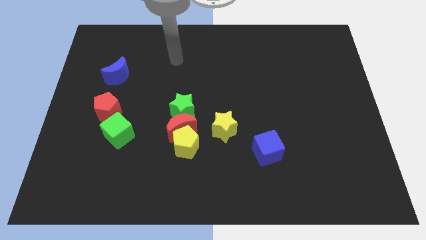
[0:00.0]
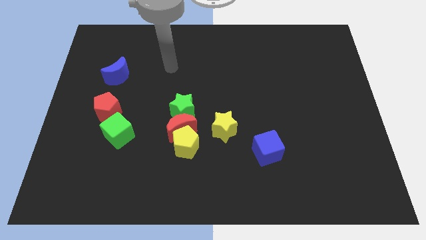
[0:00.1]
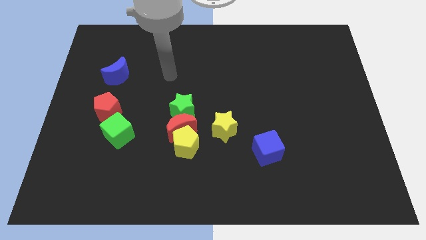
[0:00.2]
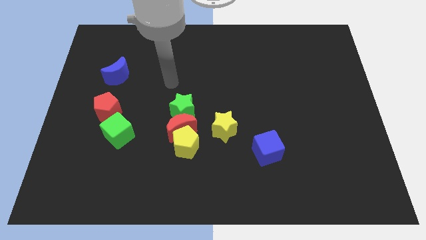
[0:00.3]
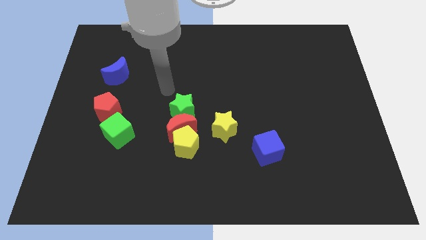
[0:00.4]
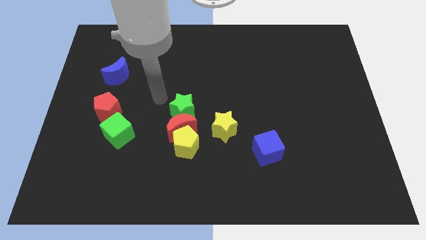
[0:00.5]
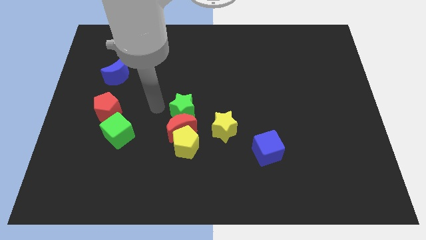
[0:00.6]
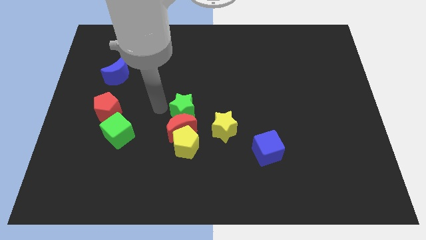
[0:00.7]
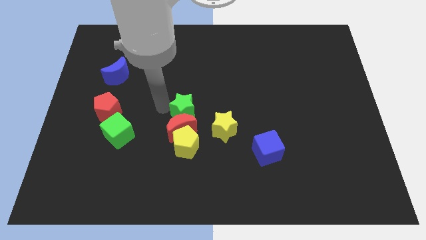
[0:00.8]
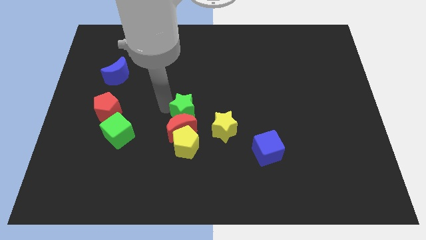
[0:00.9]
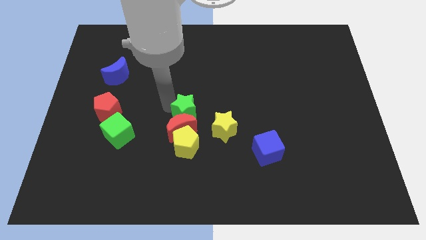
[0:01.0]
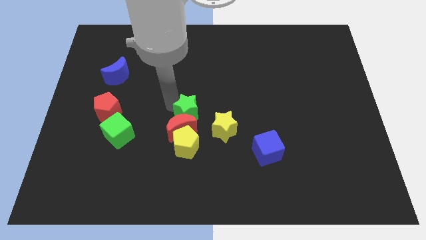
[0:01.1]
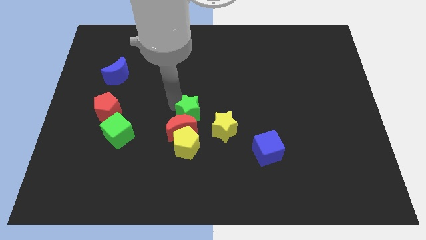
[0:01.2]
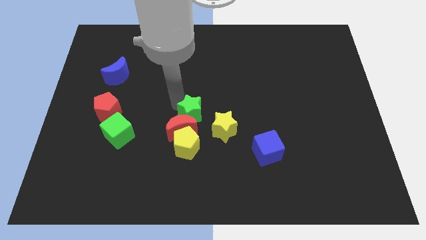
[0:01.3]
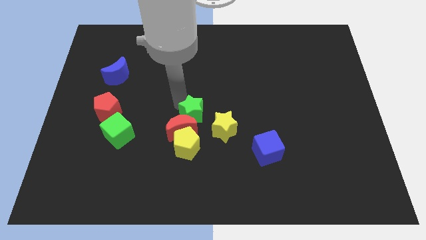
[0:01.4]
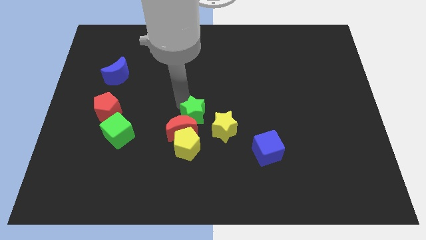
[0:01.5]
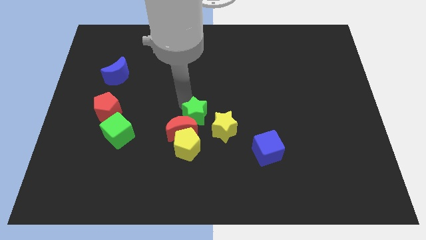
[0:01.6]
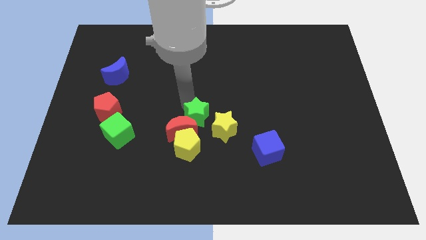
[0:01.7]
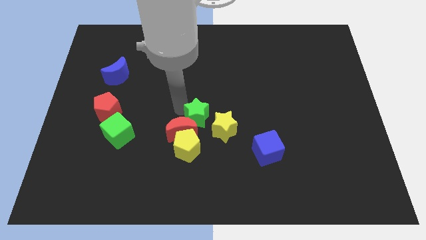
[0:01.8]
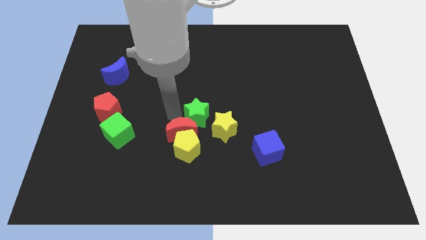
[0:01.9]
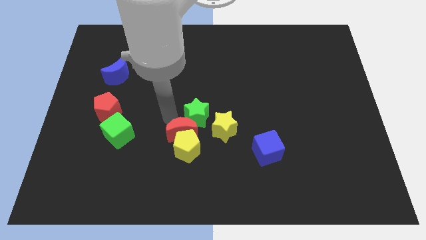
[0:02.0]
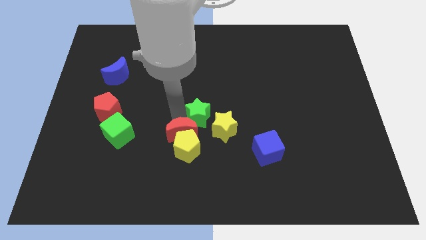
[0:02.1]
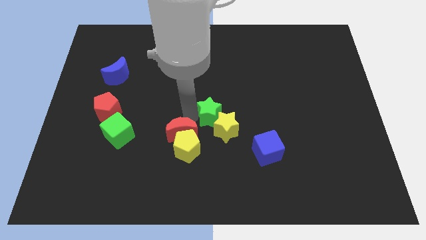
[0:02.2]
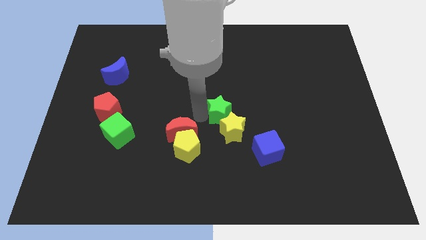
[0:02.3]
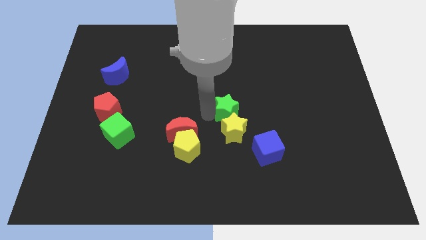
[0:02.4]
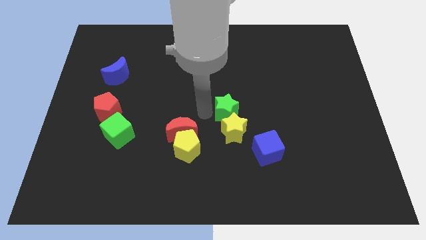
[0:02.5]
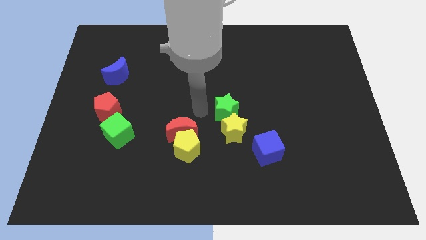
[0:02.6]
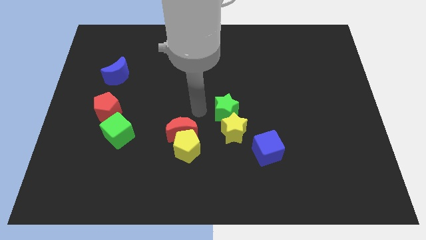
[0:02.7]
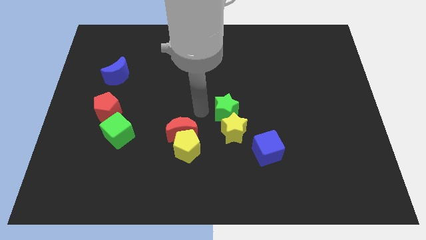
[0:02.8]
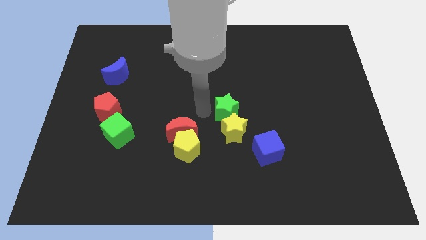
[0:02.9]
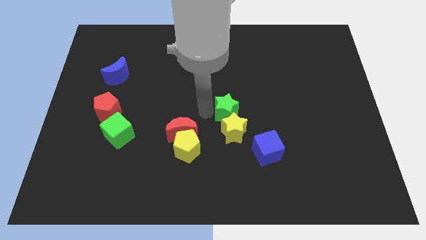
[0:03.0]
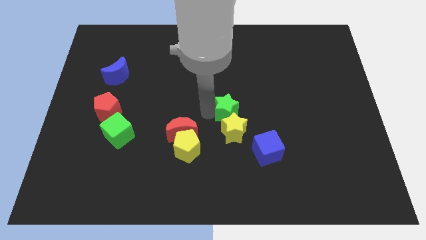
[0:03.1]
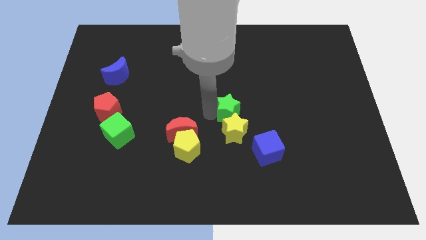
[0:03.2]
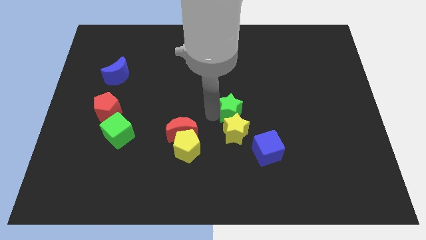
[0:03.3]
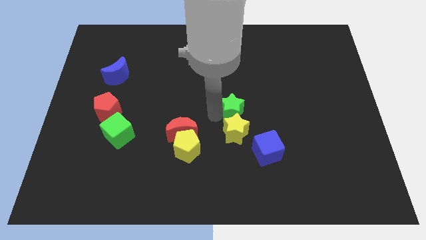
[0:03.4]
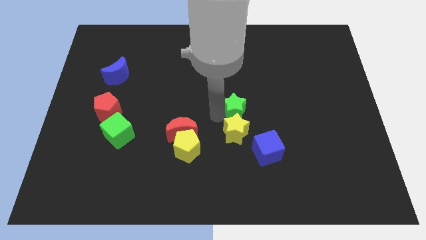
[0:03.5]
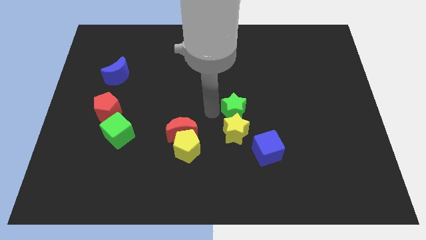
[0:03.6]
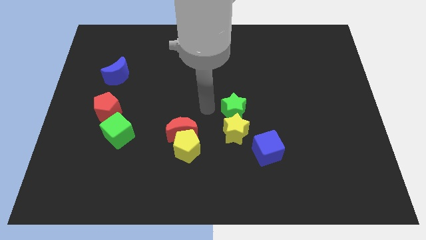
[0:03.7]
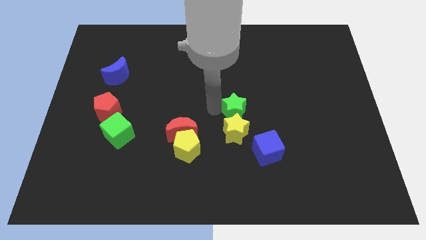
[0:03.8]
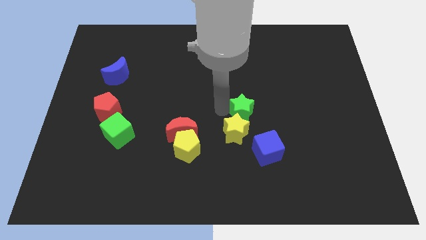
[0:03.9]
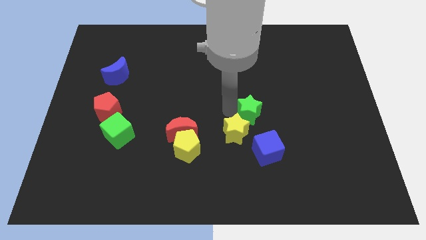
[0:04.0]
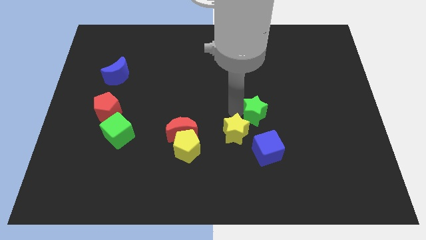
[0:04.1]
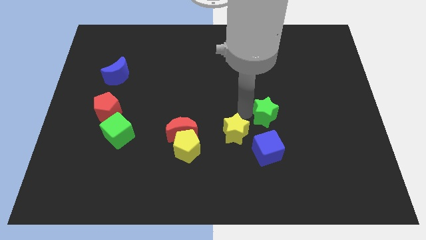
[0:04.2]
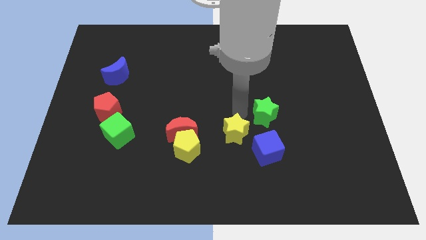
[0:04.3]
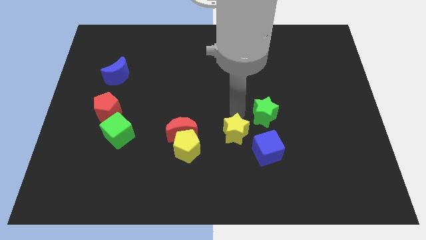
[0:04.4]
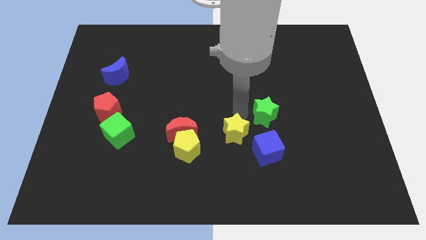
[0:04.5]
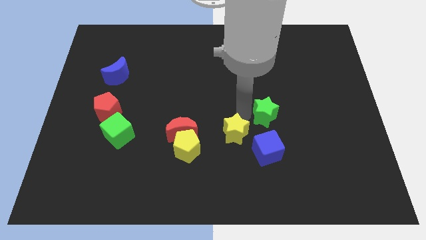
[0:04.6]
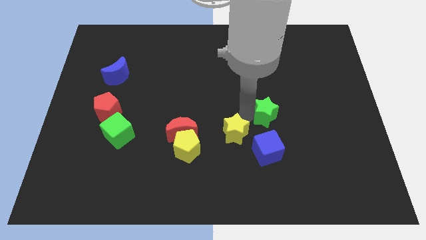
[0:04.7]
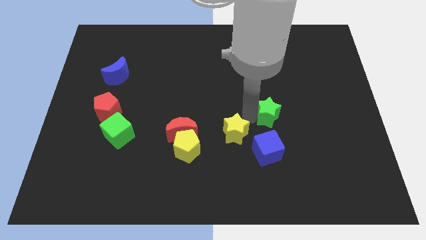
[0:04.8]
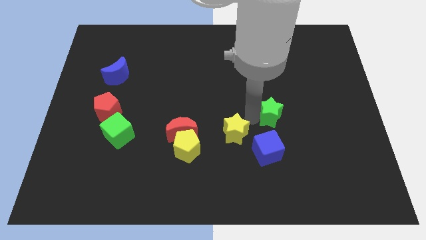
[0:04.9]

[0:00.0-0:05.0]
move the green star to the right

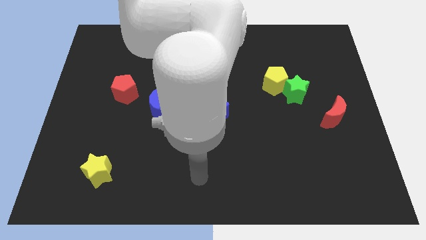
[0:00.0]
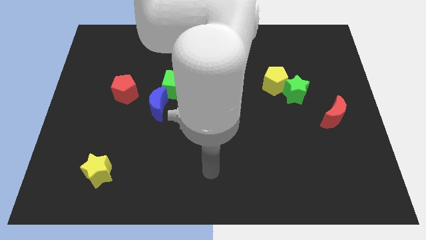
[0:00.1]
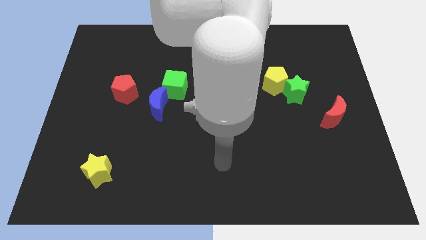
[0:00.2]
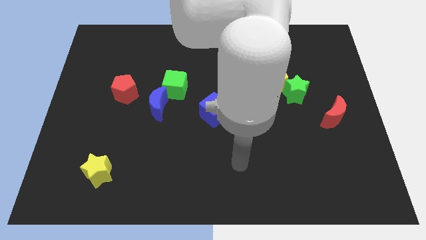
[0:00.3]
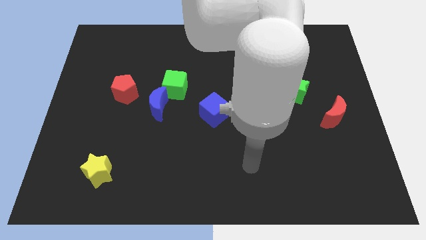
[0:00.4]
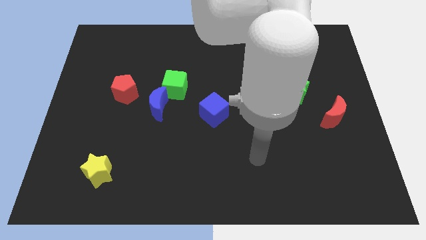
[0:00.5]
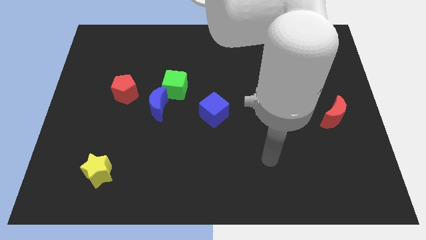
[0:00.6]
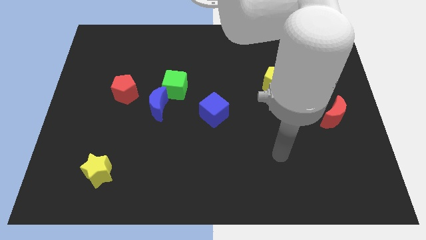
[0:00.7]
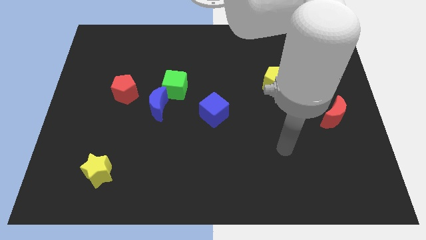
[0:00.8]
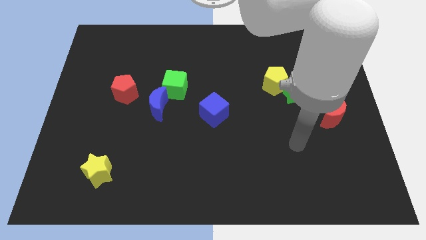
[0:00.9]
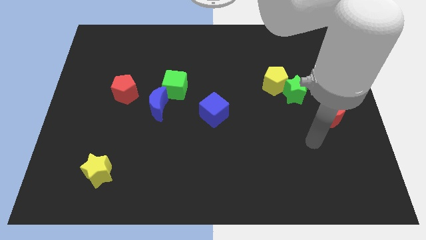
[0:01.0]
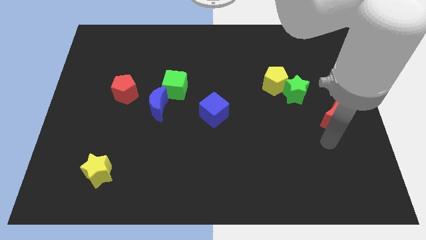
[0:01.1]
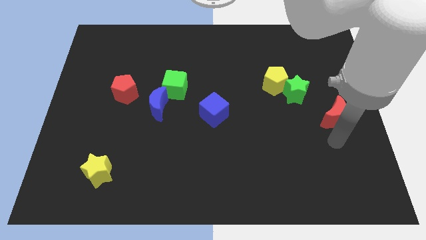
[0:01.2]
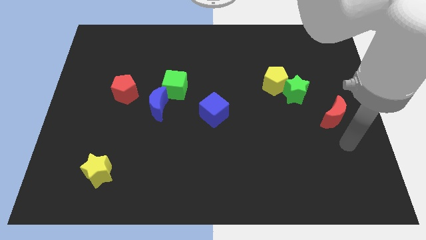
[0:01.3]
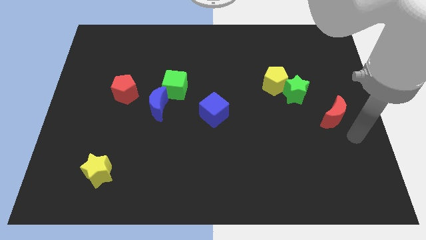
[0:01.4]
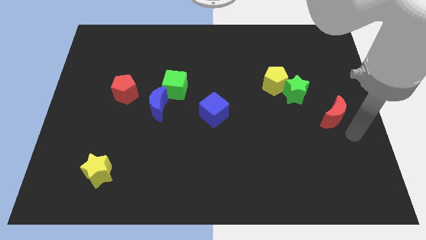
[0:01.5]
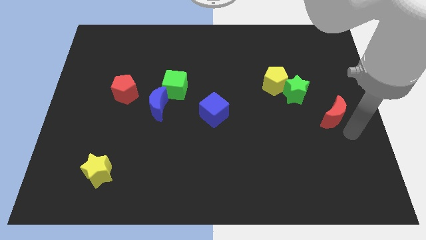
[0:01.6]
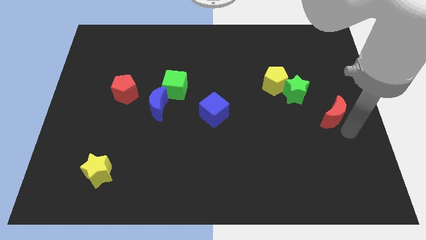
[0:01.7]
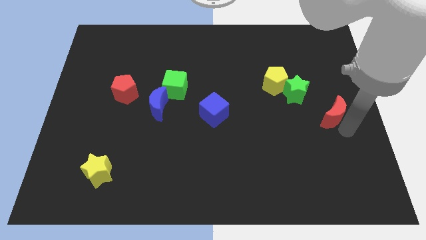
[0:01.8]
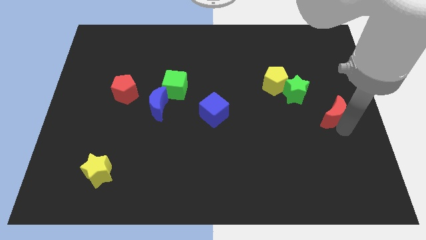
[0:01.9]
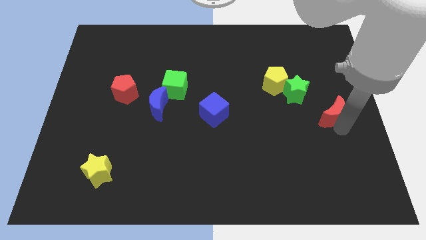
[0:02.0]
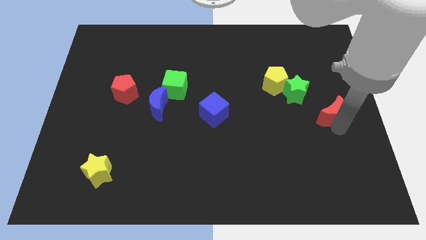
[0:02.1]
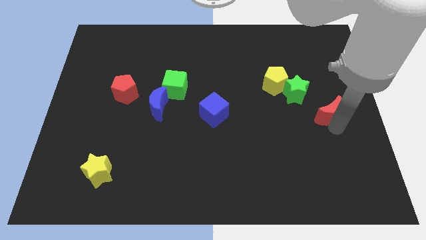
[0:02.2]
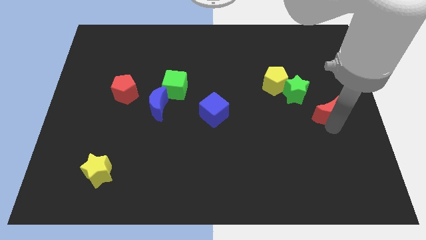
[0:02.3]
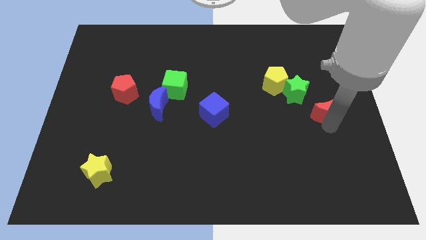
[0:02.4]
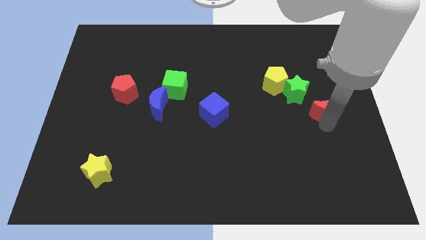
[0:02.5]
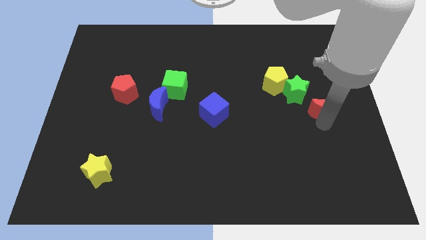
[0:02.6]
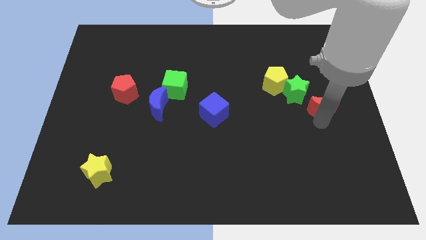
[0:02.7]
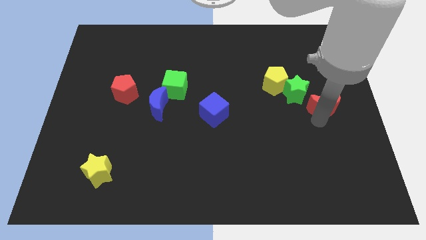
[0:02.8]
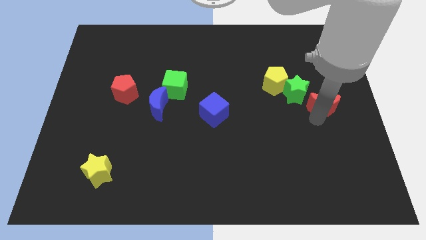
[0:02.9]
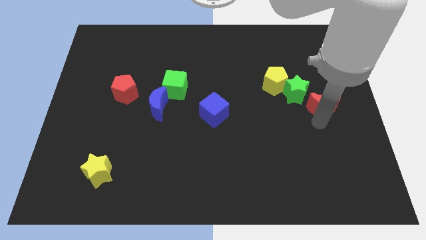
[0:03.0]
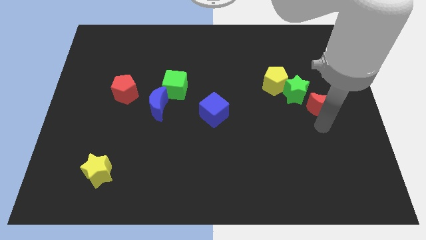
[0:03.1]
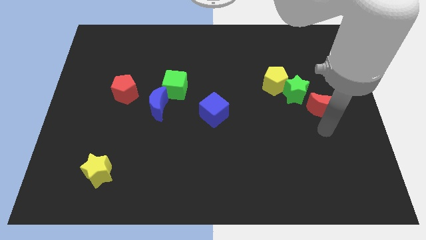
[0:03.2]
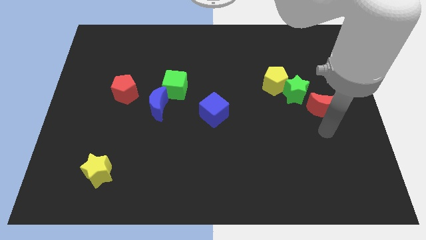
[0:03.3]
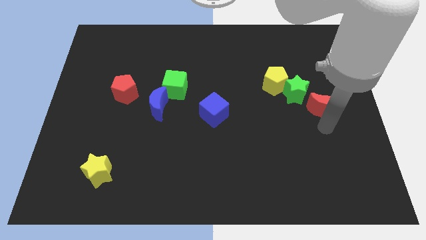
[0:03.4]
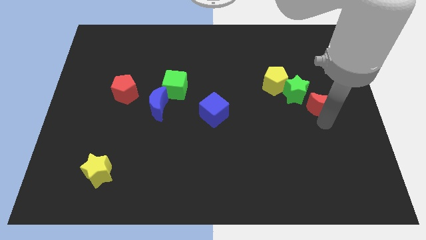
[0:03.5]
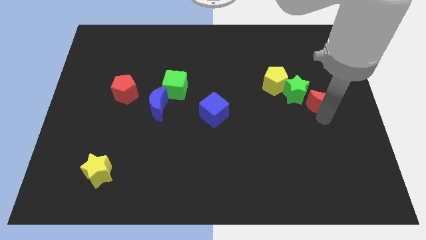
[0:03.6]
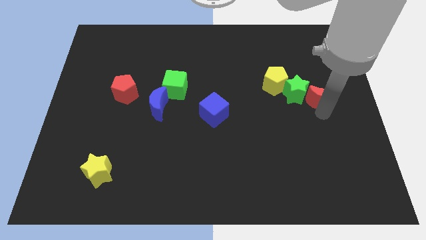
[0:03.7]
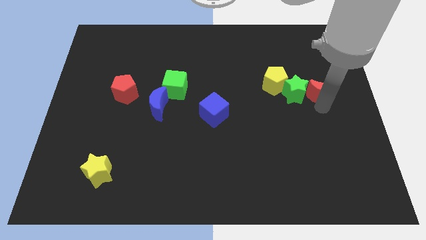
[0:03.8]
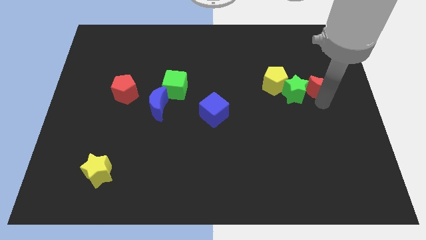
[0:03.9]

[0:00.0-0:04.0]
push the red moon upwards somewhat
